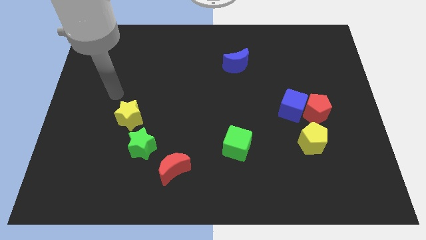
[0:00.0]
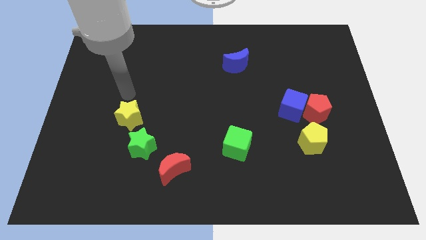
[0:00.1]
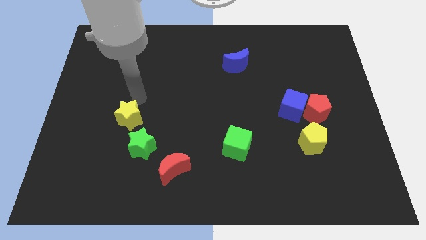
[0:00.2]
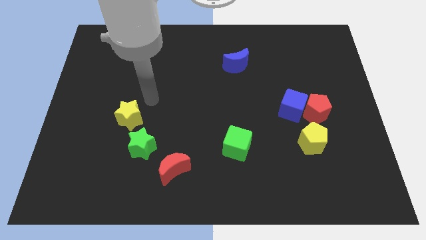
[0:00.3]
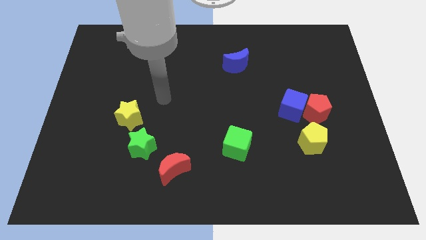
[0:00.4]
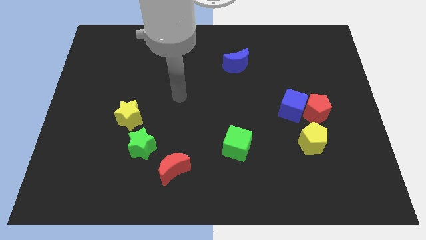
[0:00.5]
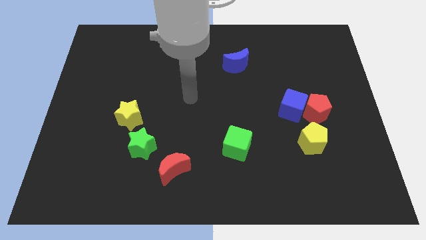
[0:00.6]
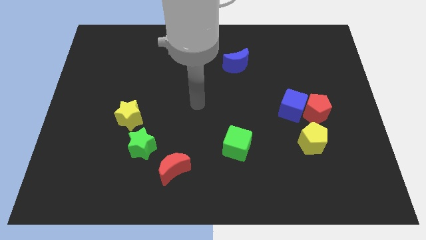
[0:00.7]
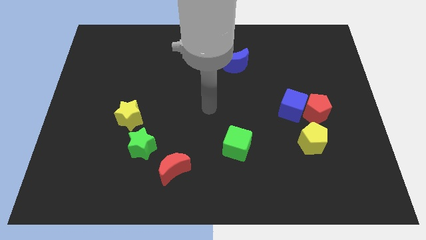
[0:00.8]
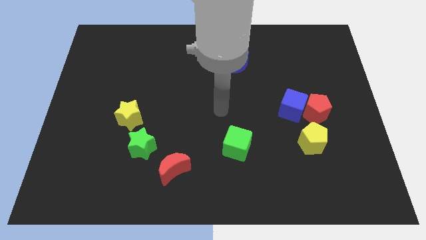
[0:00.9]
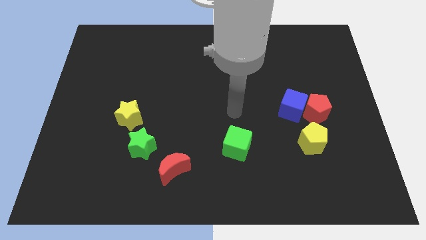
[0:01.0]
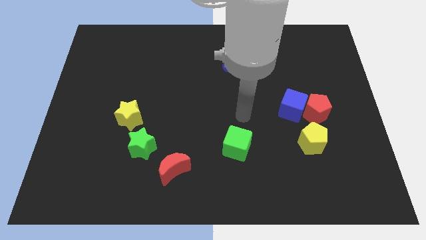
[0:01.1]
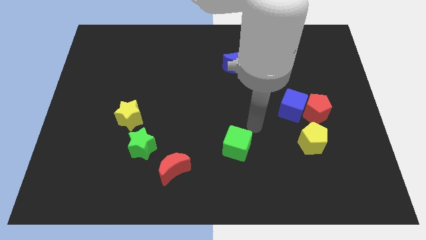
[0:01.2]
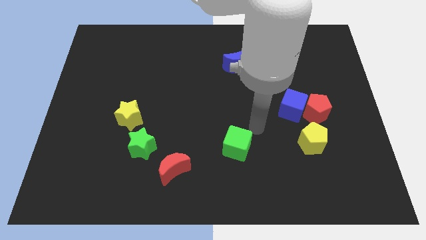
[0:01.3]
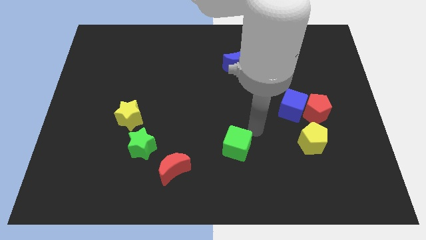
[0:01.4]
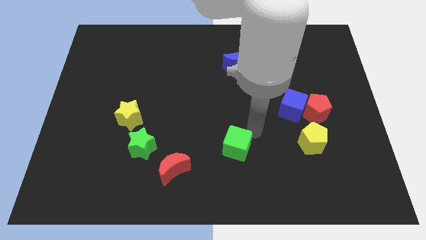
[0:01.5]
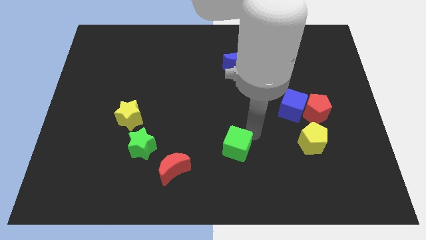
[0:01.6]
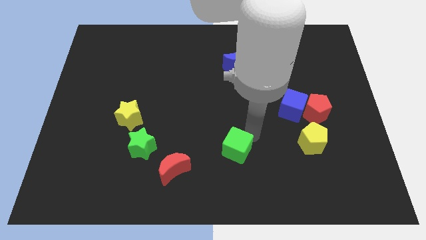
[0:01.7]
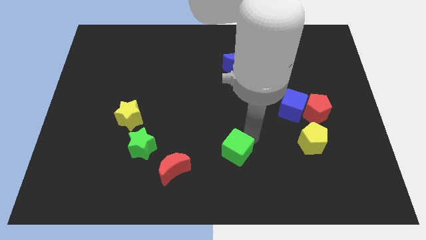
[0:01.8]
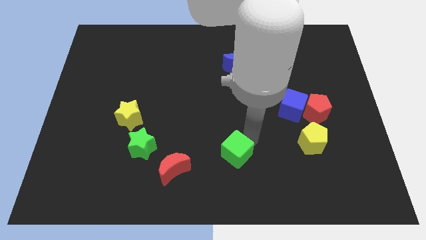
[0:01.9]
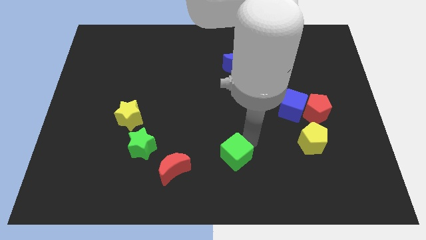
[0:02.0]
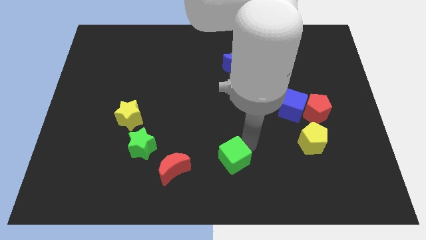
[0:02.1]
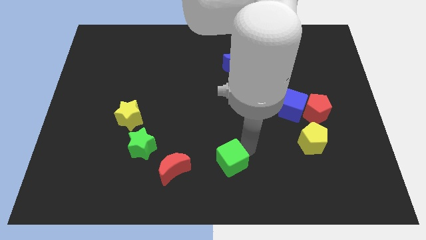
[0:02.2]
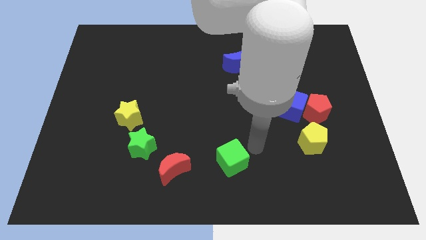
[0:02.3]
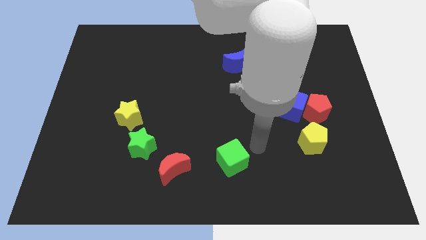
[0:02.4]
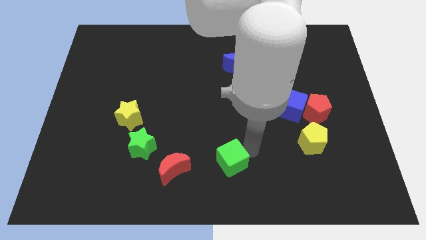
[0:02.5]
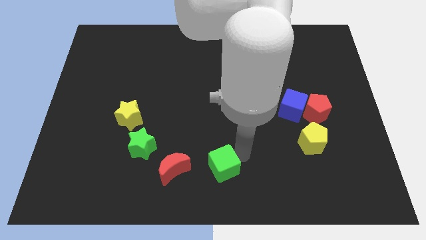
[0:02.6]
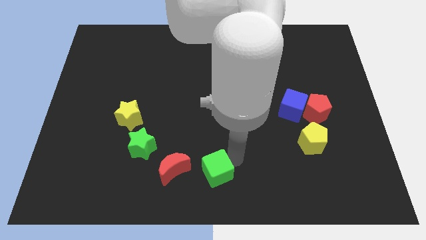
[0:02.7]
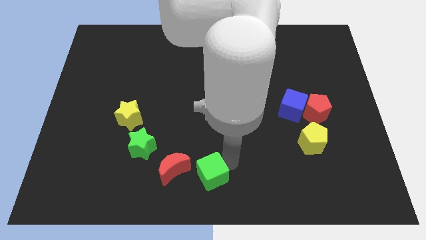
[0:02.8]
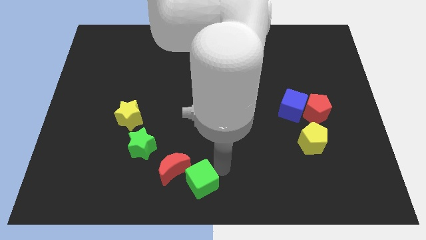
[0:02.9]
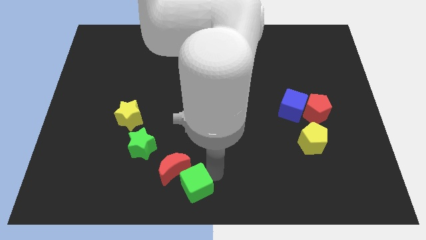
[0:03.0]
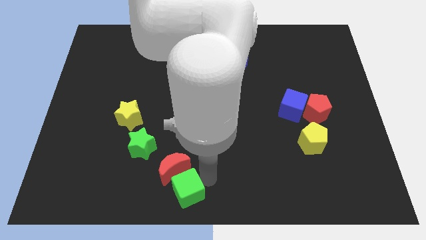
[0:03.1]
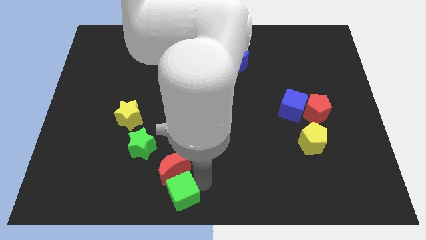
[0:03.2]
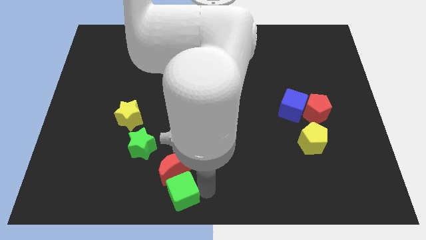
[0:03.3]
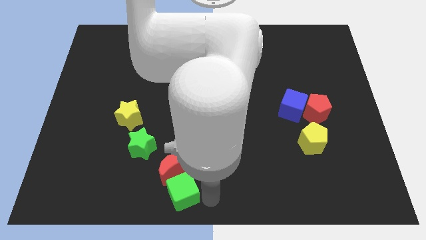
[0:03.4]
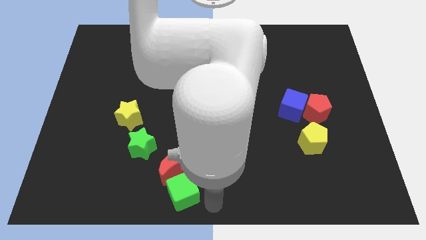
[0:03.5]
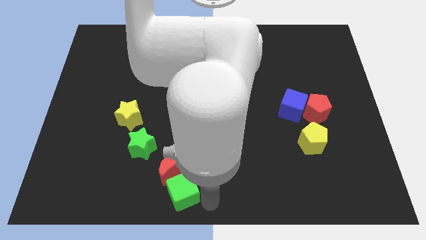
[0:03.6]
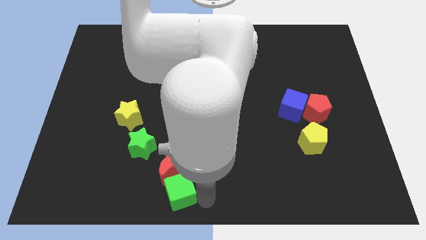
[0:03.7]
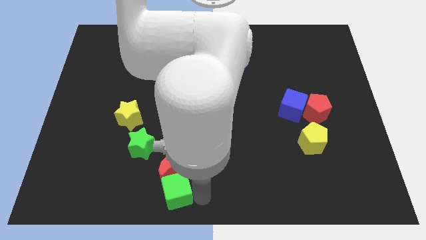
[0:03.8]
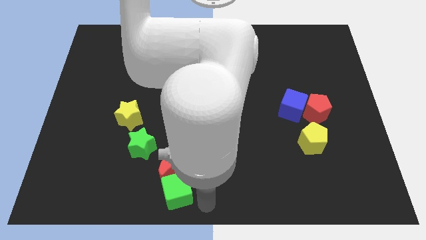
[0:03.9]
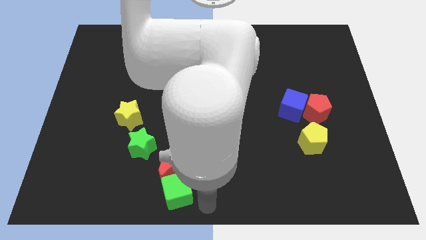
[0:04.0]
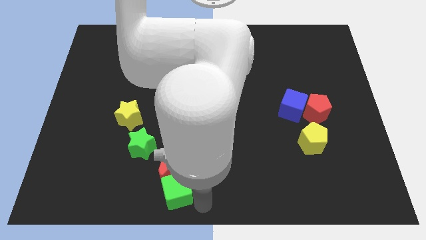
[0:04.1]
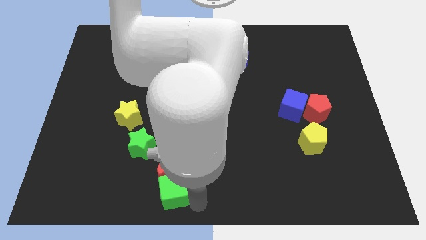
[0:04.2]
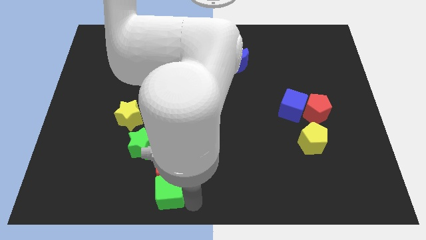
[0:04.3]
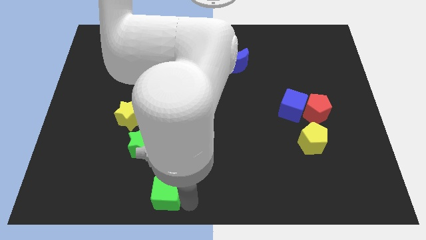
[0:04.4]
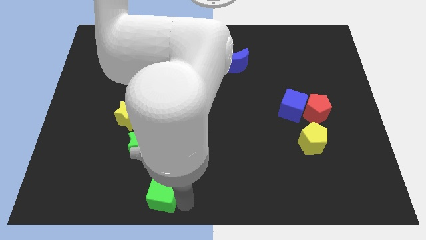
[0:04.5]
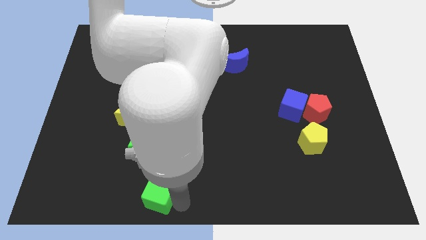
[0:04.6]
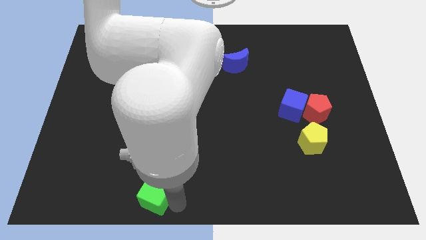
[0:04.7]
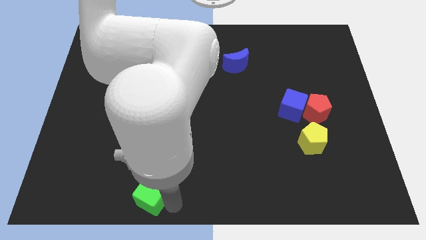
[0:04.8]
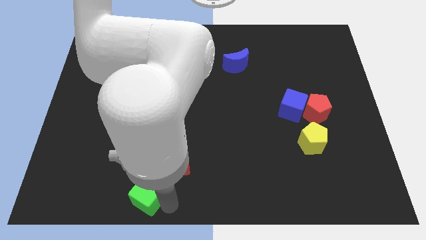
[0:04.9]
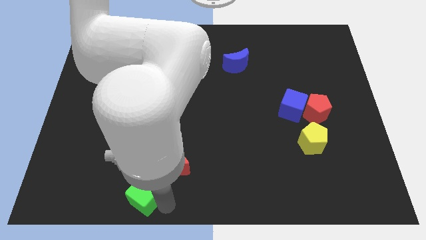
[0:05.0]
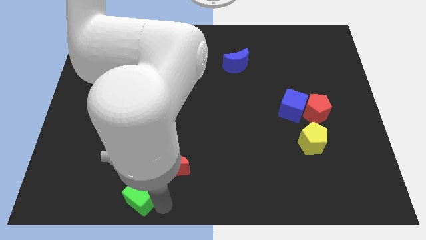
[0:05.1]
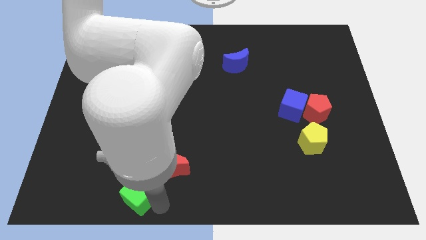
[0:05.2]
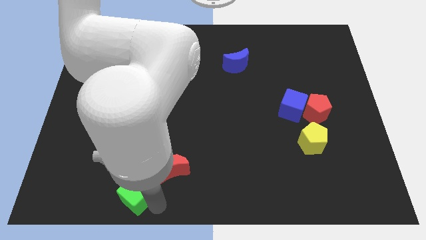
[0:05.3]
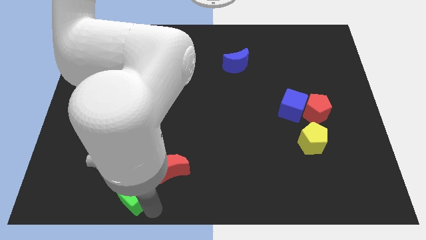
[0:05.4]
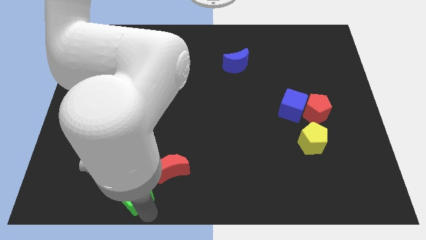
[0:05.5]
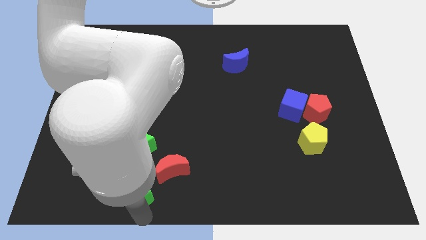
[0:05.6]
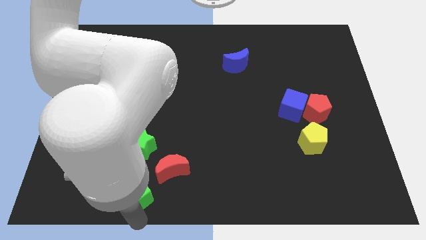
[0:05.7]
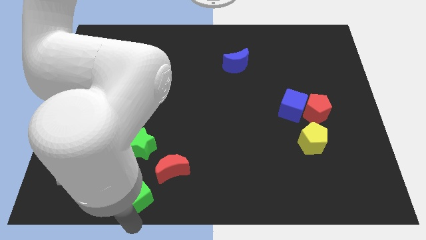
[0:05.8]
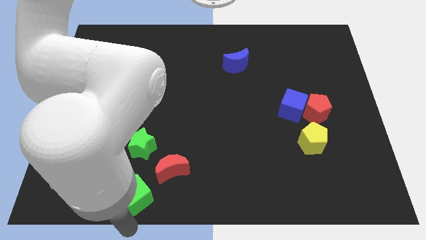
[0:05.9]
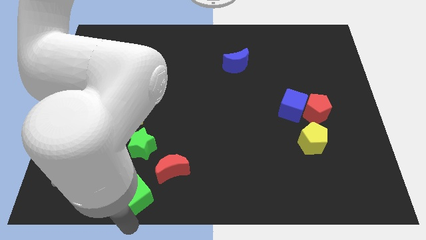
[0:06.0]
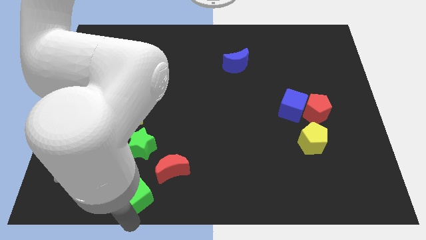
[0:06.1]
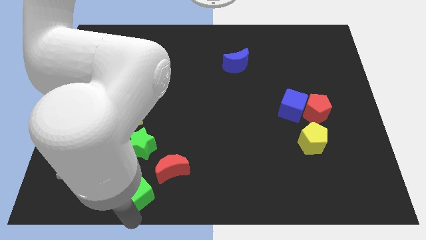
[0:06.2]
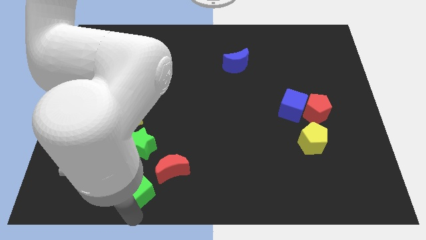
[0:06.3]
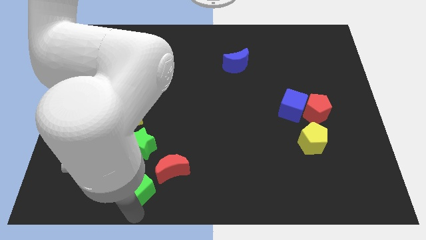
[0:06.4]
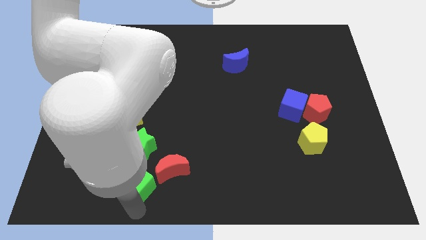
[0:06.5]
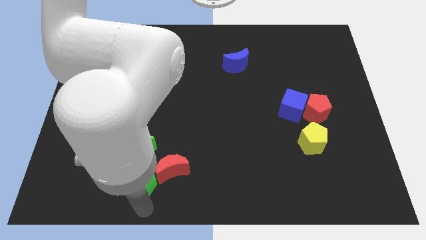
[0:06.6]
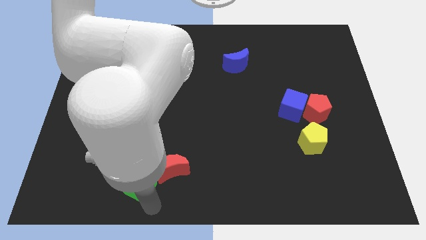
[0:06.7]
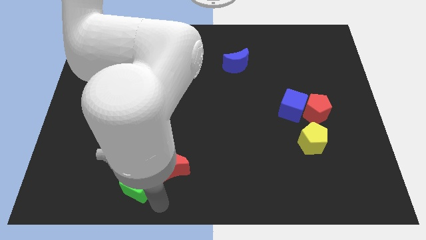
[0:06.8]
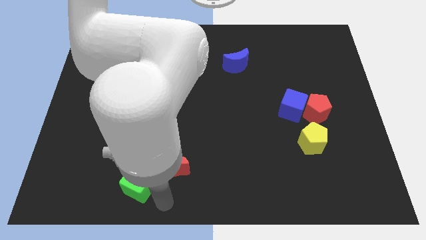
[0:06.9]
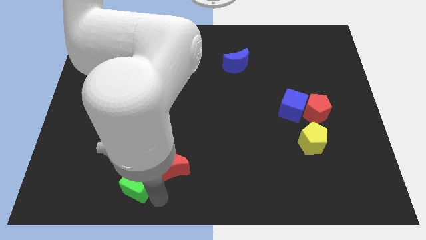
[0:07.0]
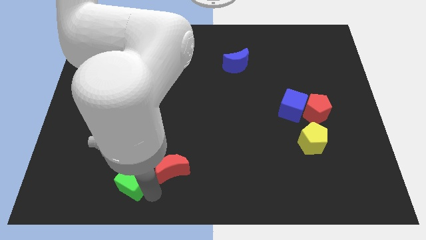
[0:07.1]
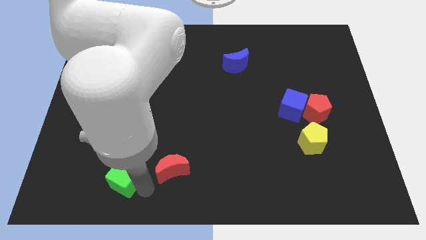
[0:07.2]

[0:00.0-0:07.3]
move the green cube to the left

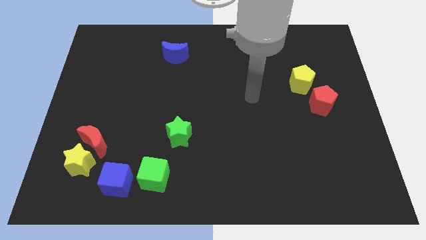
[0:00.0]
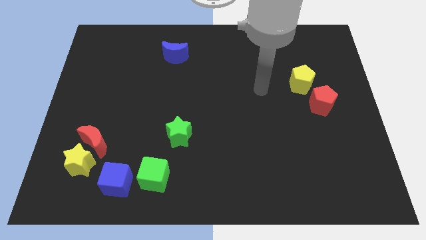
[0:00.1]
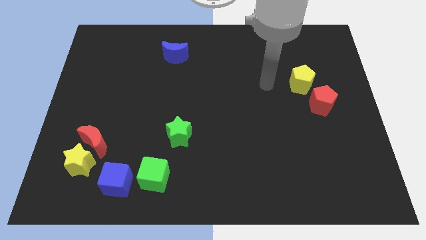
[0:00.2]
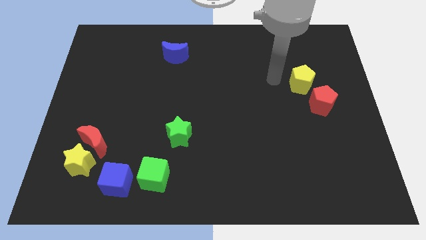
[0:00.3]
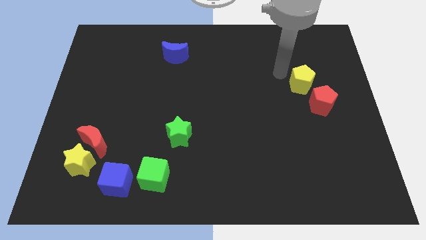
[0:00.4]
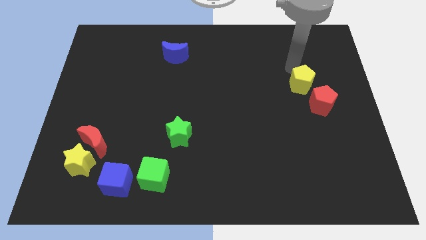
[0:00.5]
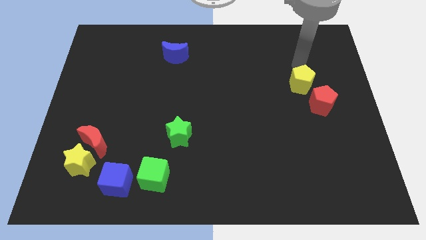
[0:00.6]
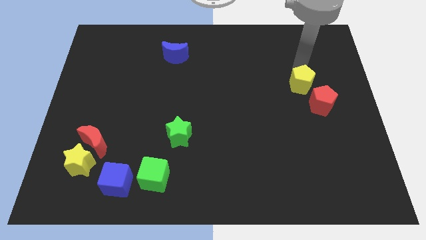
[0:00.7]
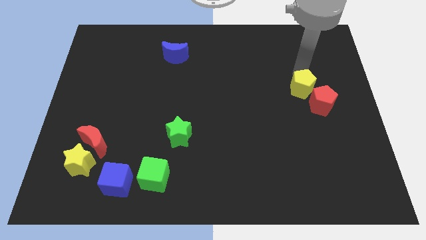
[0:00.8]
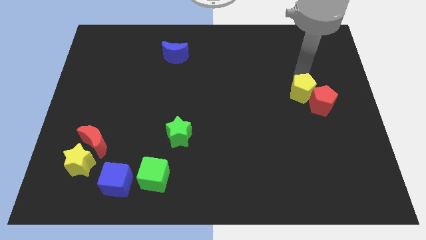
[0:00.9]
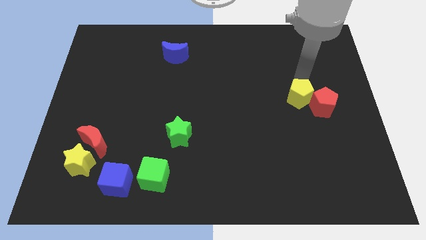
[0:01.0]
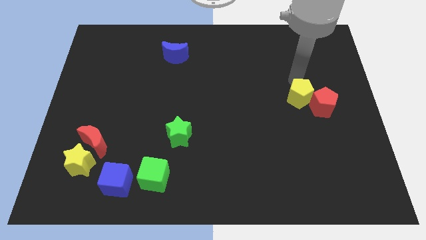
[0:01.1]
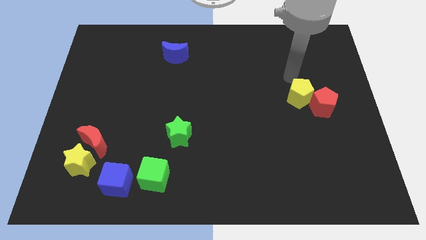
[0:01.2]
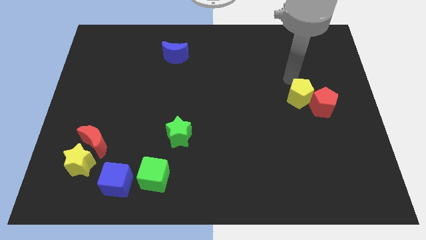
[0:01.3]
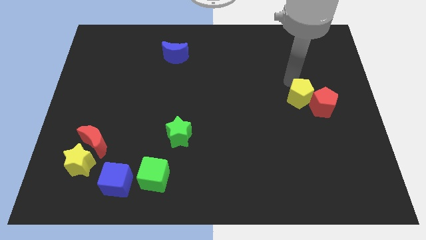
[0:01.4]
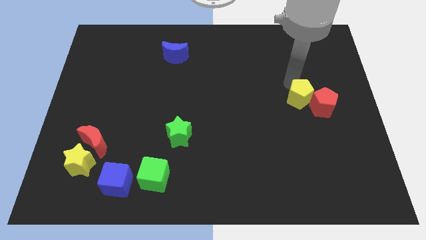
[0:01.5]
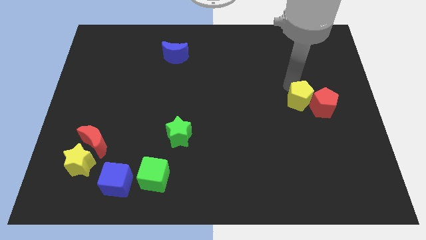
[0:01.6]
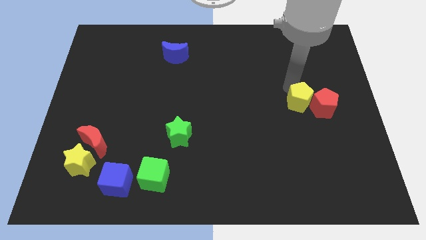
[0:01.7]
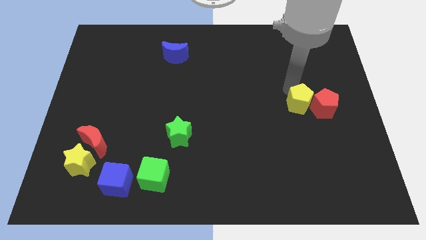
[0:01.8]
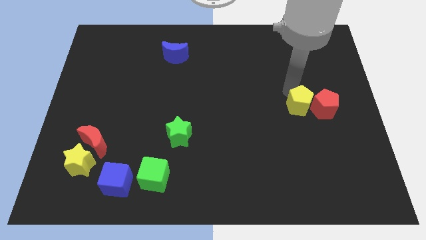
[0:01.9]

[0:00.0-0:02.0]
move the yellow pentagon slightly down
